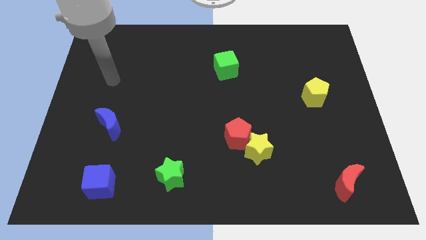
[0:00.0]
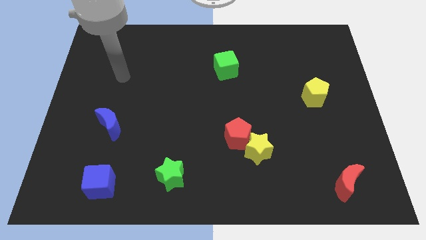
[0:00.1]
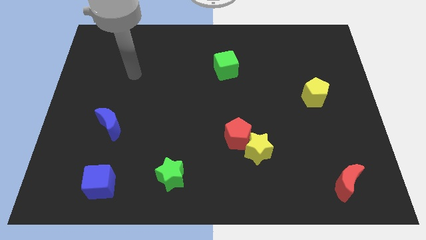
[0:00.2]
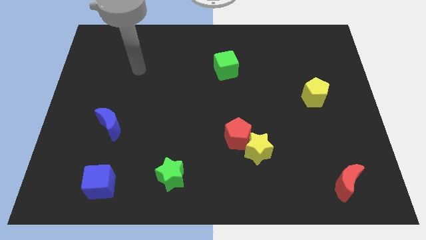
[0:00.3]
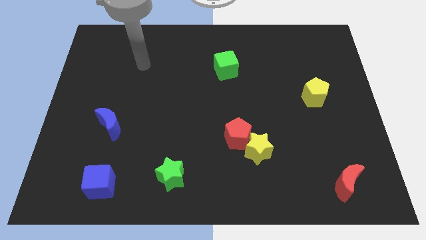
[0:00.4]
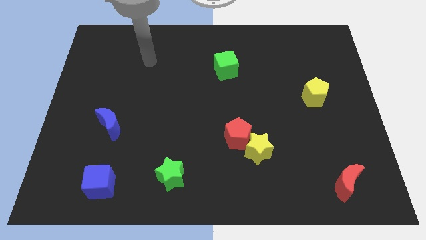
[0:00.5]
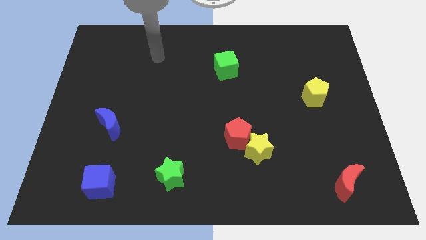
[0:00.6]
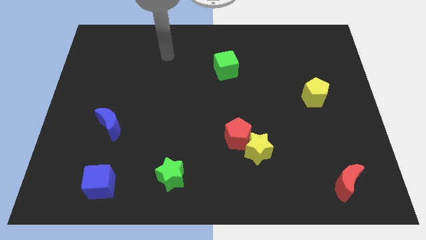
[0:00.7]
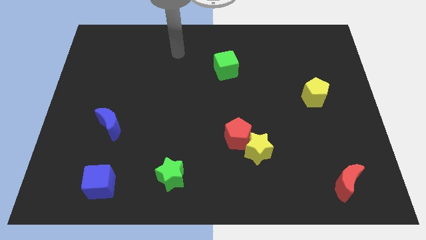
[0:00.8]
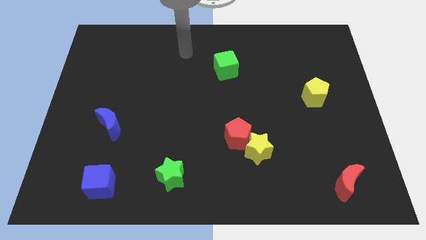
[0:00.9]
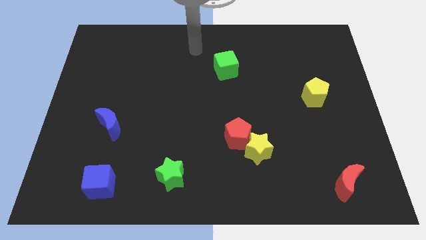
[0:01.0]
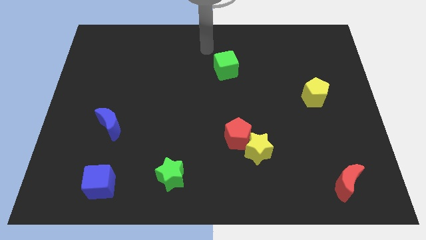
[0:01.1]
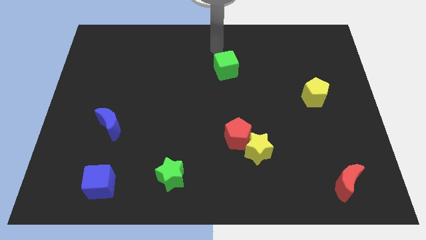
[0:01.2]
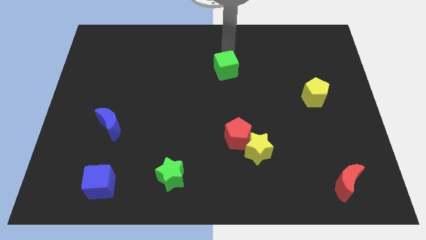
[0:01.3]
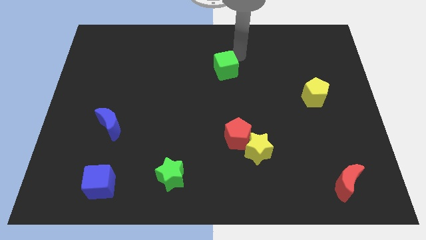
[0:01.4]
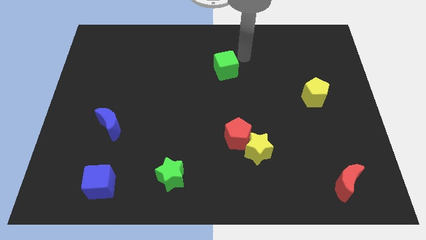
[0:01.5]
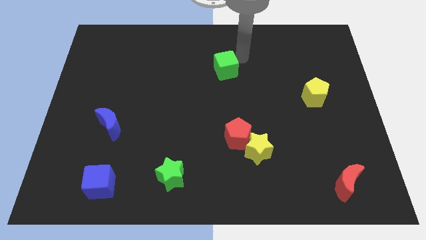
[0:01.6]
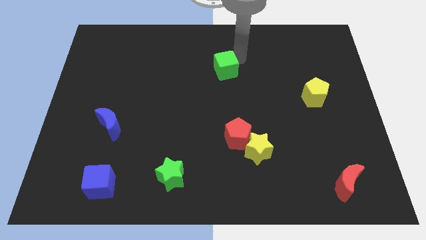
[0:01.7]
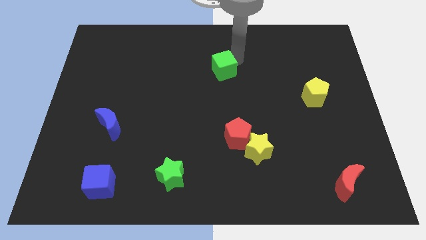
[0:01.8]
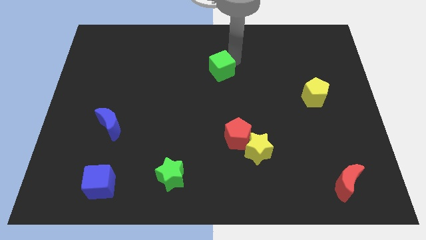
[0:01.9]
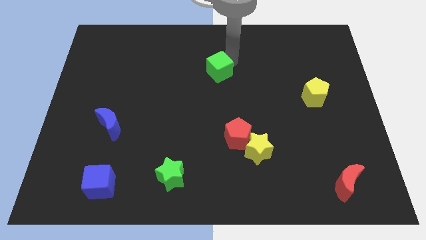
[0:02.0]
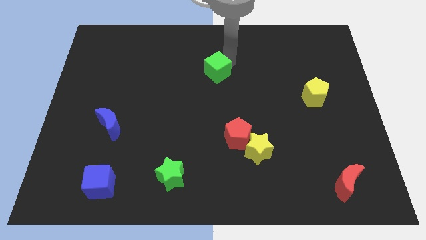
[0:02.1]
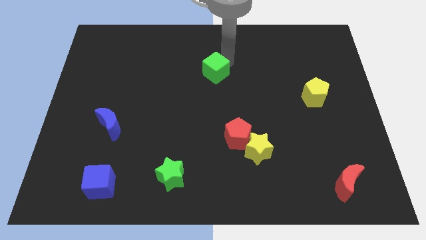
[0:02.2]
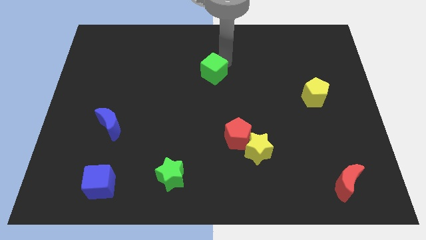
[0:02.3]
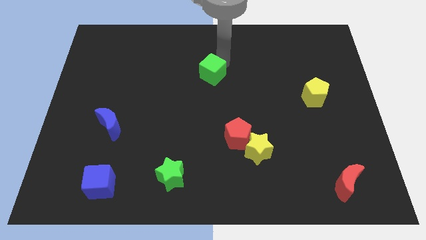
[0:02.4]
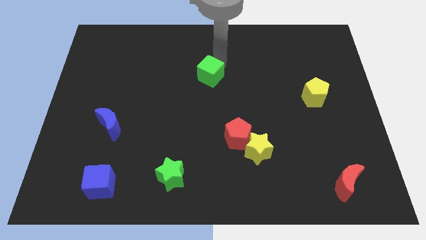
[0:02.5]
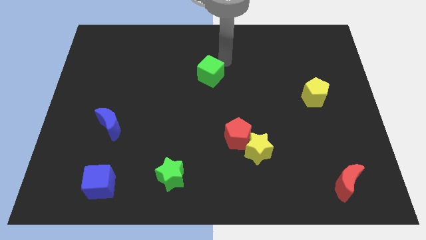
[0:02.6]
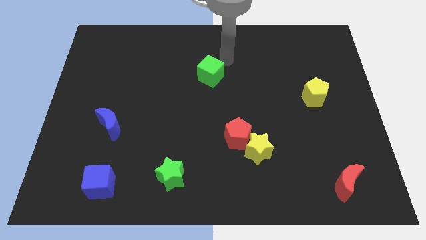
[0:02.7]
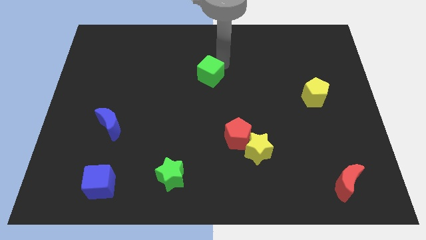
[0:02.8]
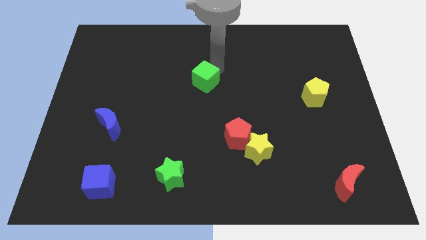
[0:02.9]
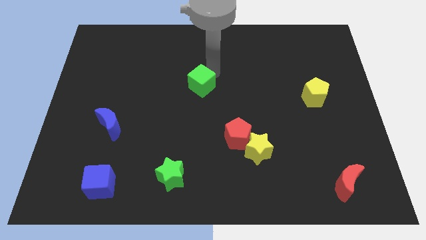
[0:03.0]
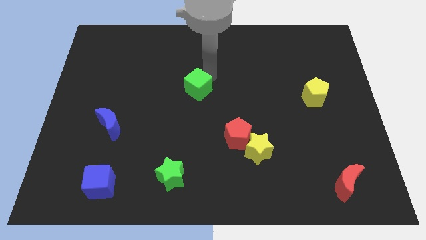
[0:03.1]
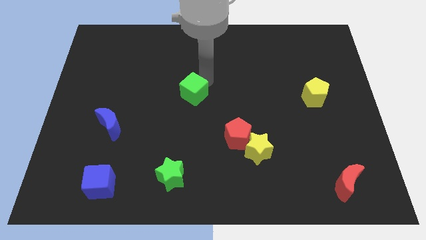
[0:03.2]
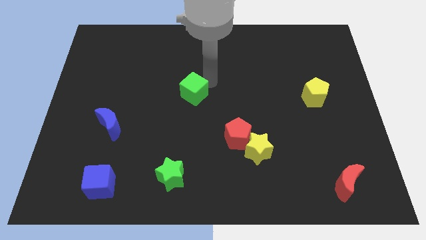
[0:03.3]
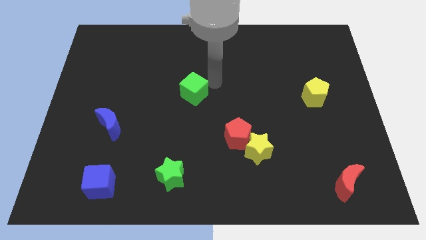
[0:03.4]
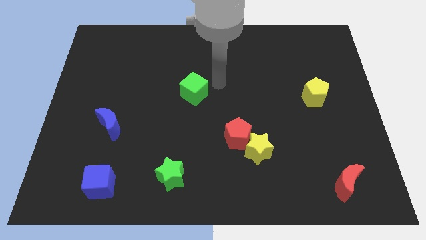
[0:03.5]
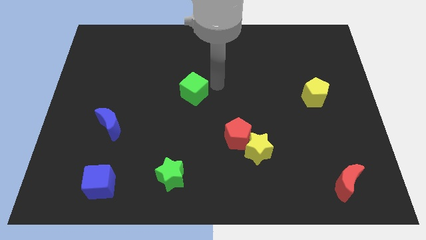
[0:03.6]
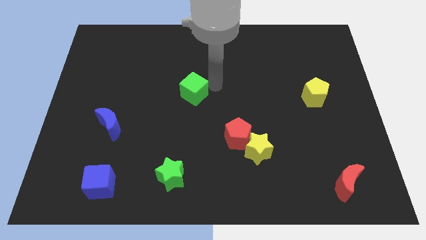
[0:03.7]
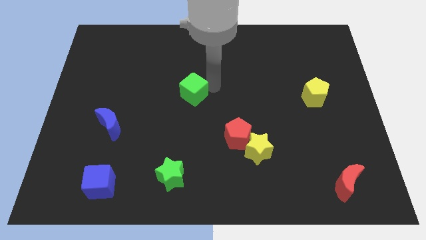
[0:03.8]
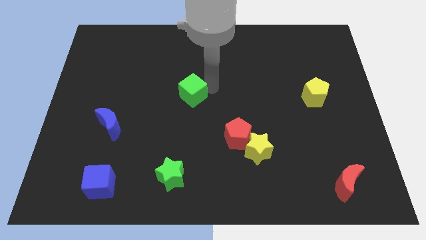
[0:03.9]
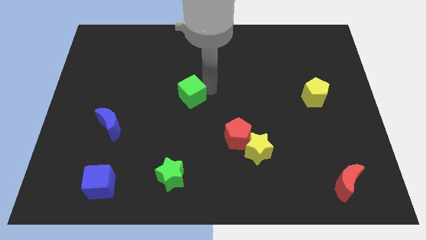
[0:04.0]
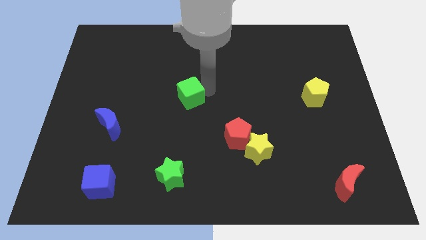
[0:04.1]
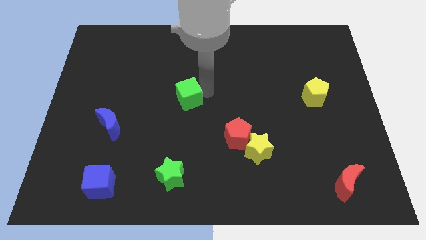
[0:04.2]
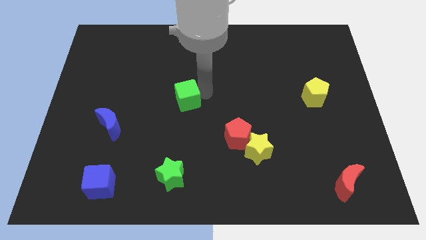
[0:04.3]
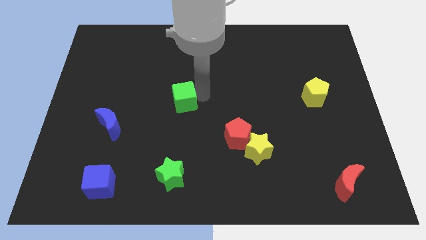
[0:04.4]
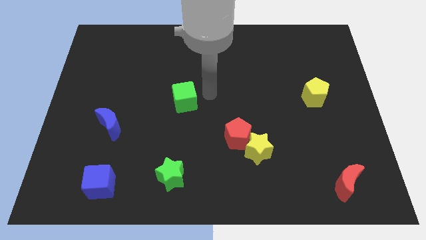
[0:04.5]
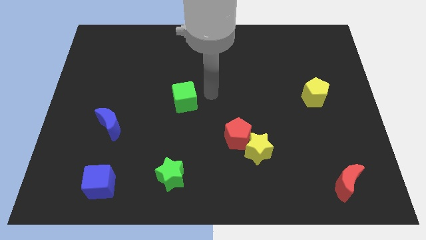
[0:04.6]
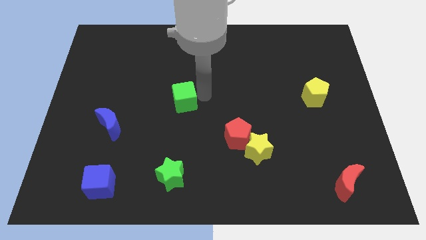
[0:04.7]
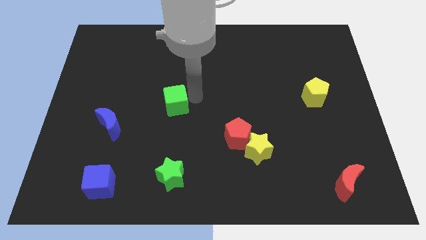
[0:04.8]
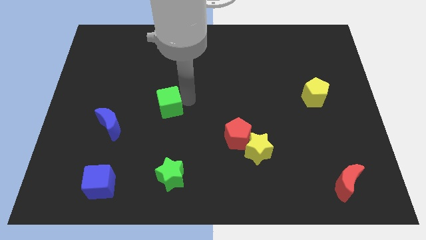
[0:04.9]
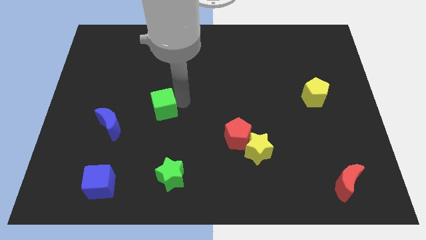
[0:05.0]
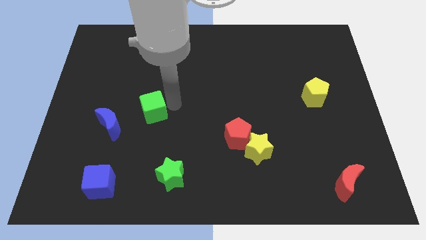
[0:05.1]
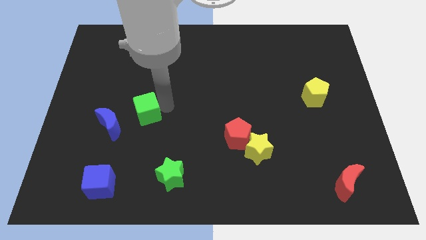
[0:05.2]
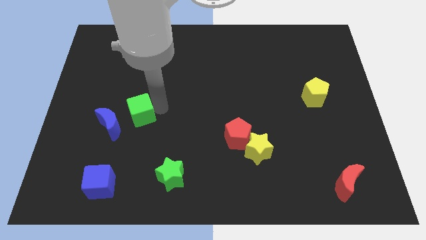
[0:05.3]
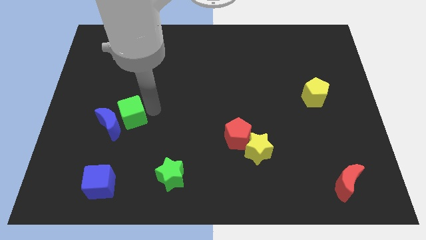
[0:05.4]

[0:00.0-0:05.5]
put the green cube next to the blue moon

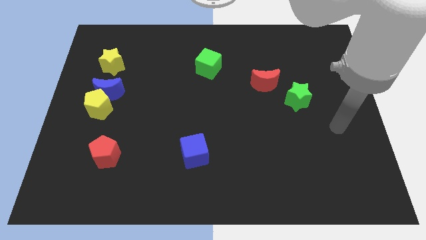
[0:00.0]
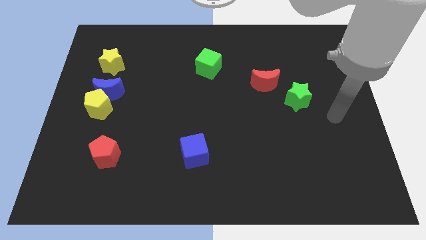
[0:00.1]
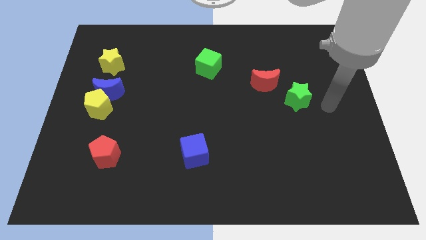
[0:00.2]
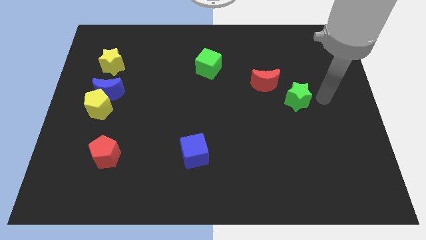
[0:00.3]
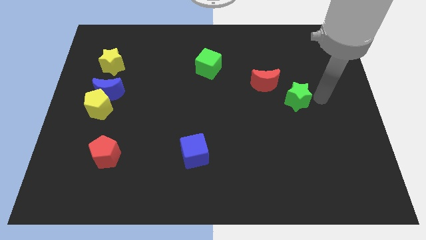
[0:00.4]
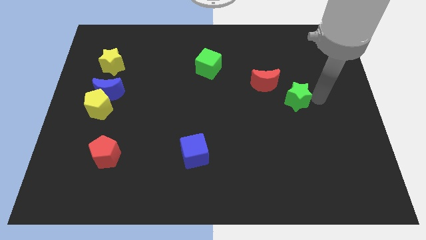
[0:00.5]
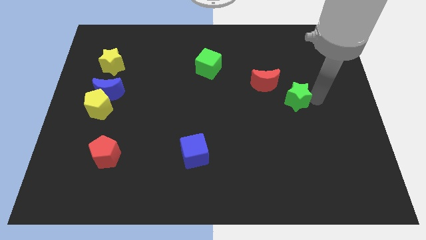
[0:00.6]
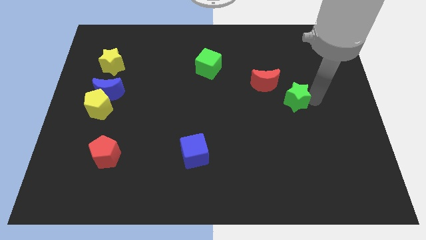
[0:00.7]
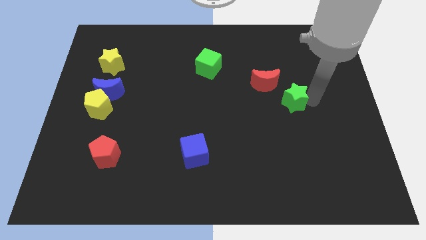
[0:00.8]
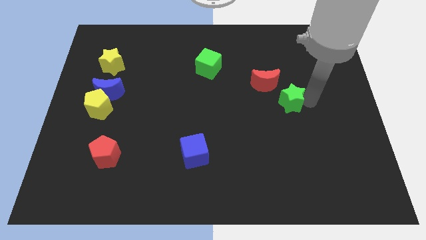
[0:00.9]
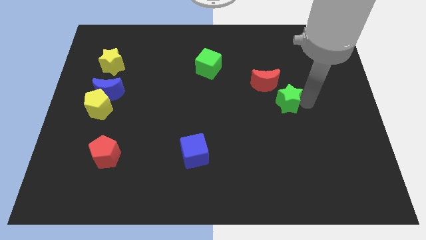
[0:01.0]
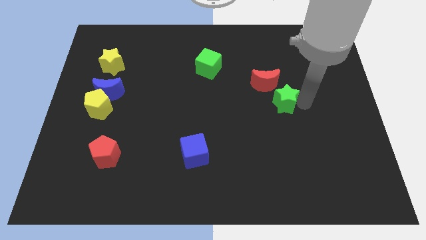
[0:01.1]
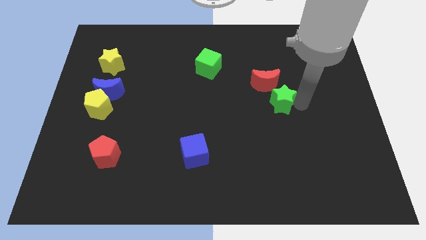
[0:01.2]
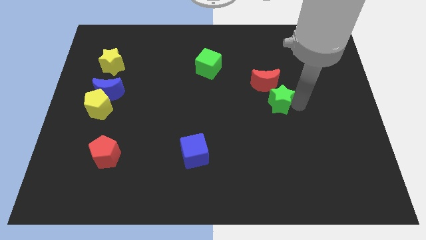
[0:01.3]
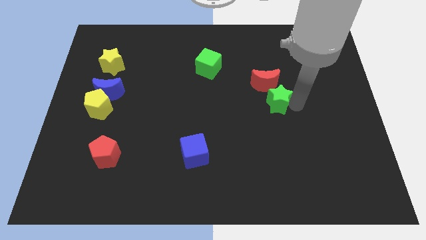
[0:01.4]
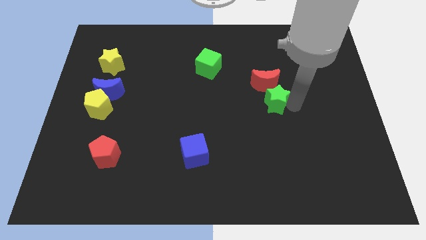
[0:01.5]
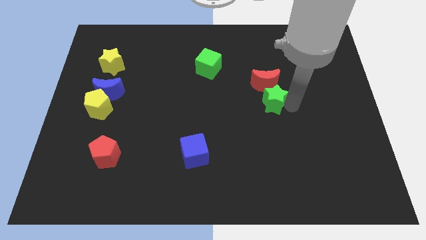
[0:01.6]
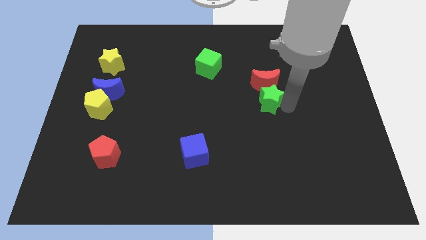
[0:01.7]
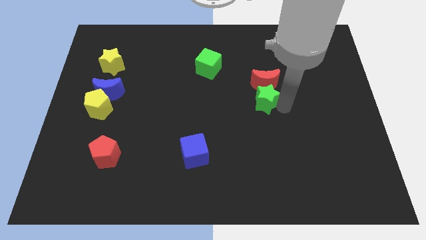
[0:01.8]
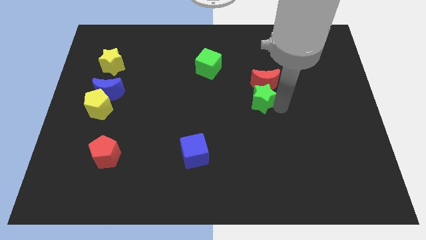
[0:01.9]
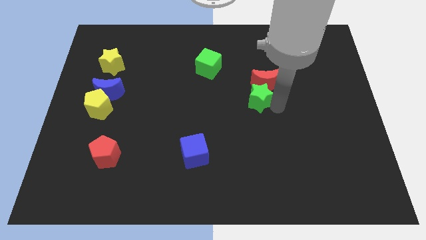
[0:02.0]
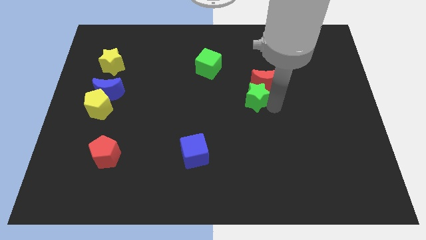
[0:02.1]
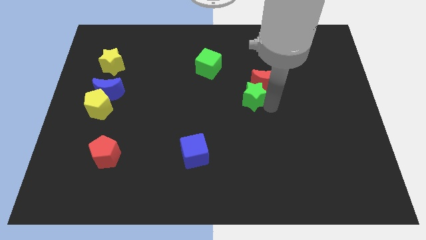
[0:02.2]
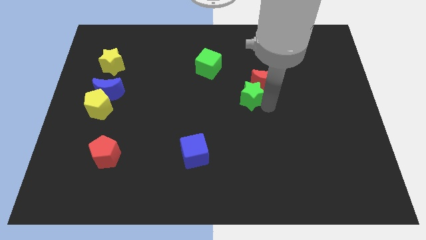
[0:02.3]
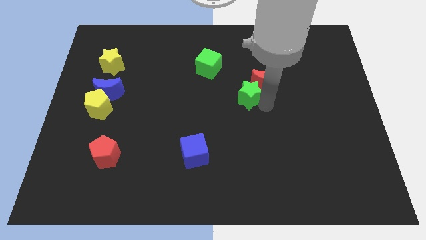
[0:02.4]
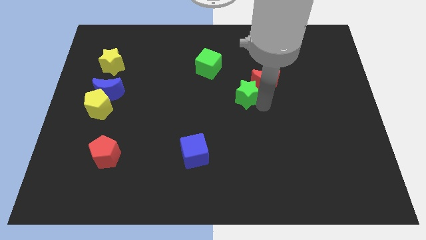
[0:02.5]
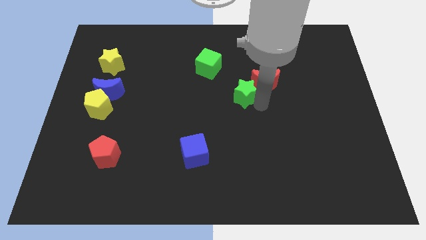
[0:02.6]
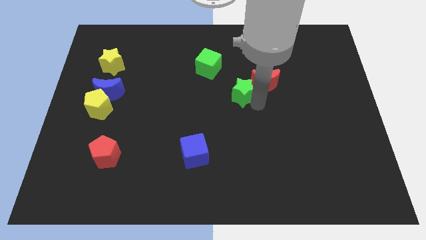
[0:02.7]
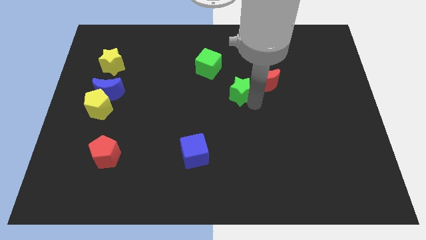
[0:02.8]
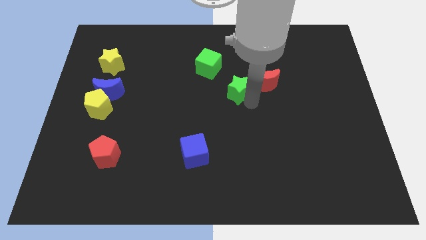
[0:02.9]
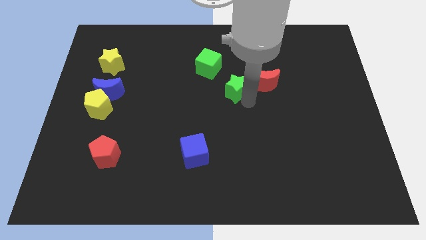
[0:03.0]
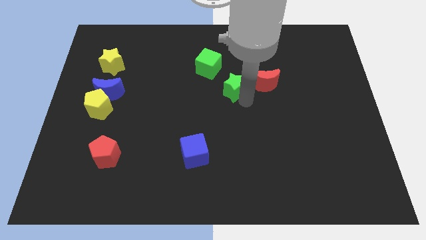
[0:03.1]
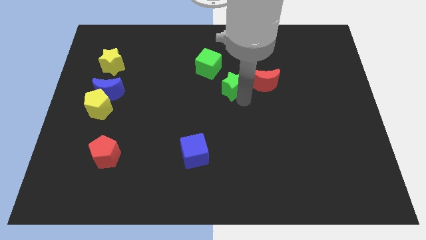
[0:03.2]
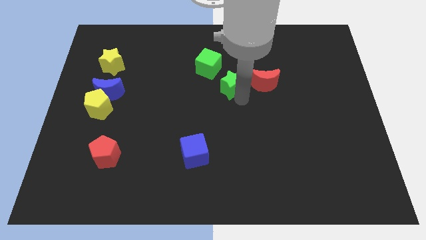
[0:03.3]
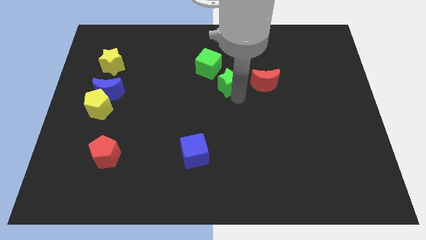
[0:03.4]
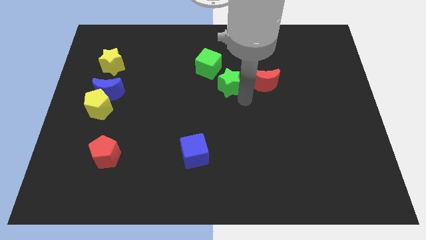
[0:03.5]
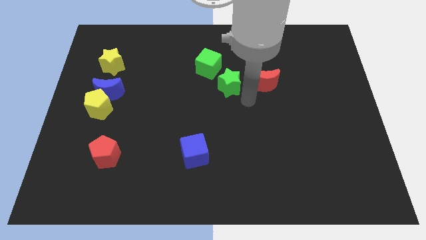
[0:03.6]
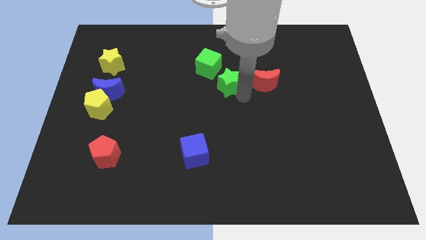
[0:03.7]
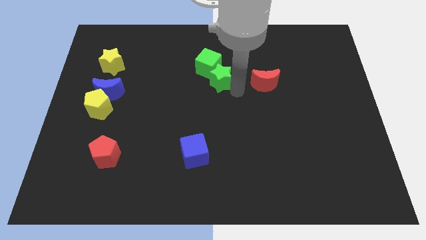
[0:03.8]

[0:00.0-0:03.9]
push the green star next to the green cube
